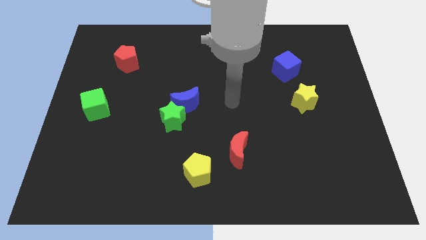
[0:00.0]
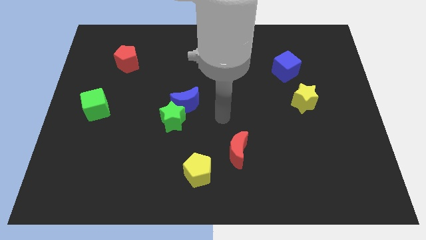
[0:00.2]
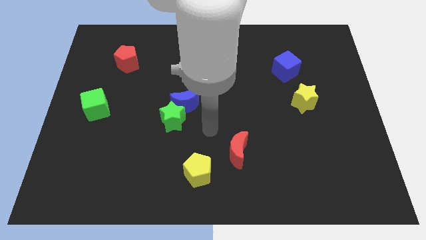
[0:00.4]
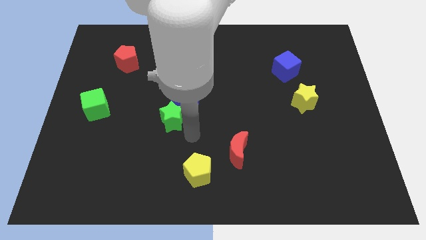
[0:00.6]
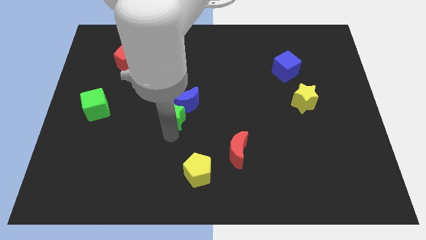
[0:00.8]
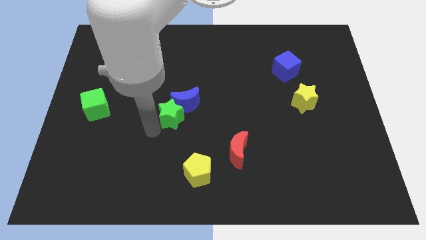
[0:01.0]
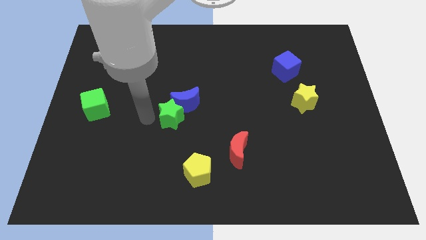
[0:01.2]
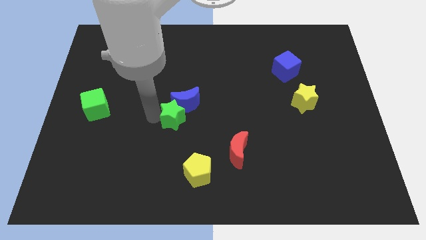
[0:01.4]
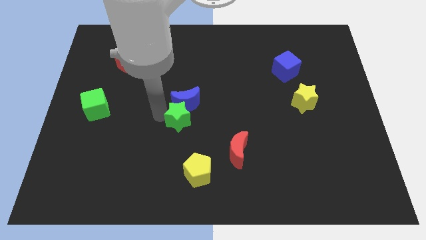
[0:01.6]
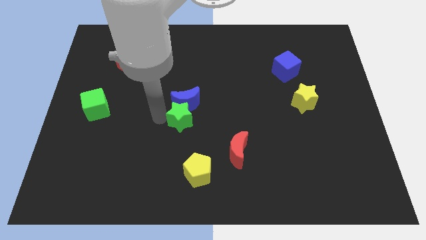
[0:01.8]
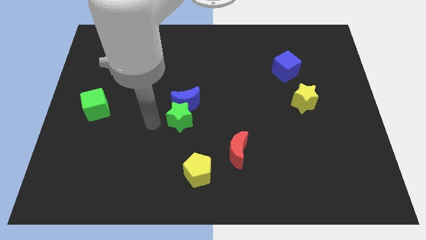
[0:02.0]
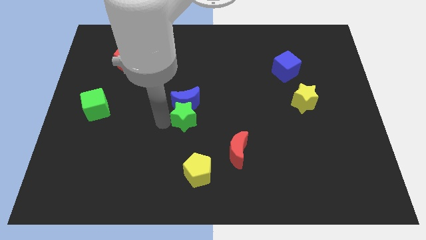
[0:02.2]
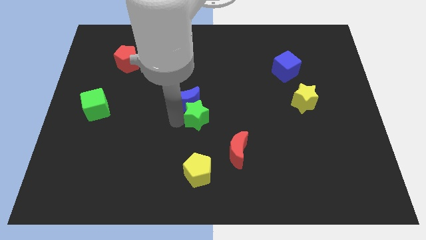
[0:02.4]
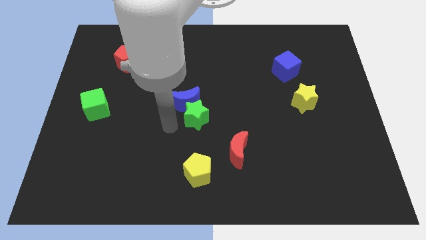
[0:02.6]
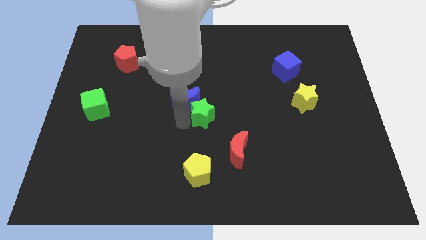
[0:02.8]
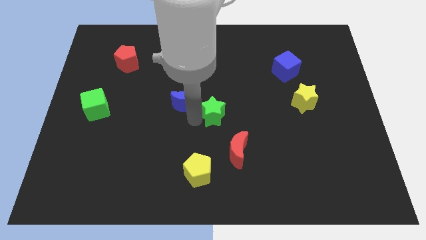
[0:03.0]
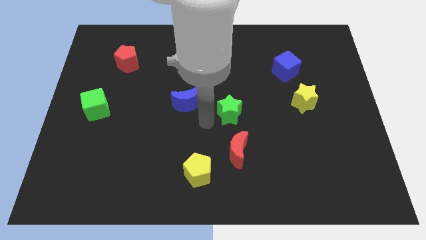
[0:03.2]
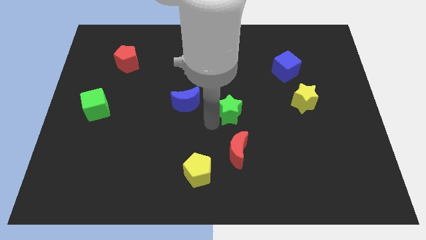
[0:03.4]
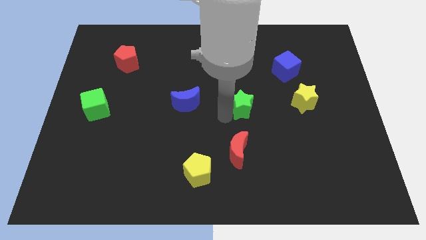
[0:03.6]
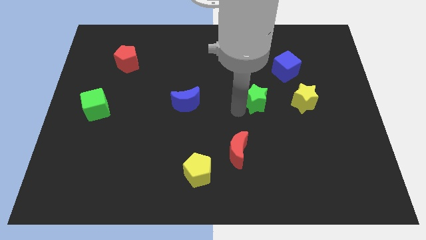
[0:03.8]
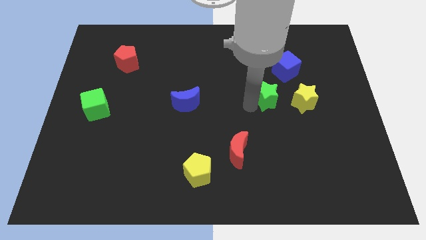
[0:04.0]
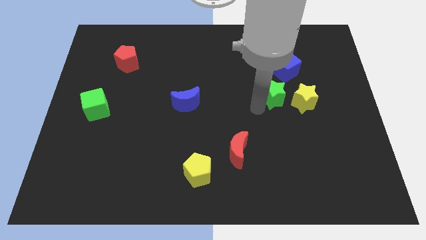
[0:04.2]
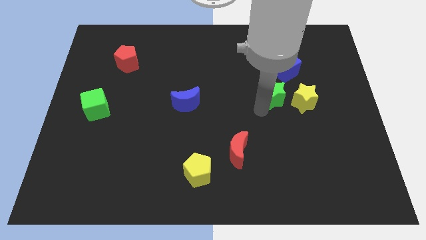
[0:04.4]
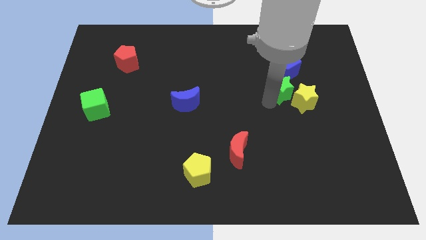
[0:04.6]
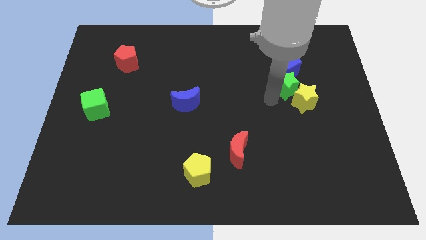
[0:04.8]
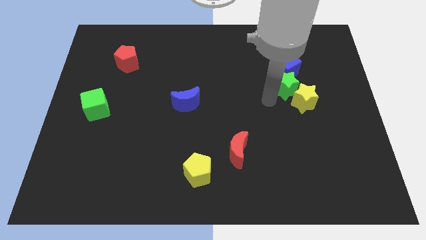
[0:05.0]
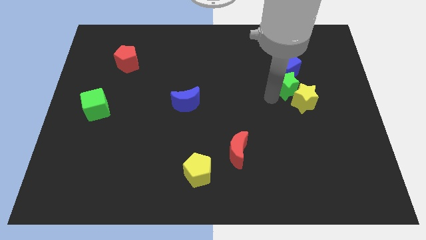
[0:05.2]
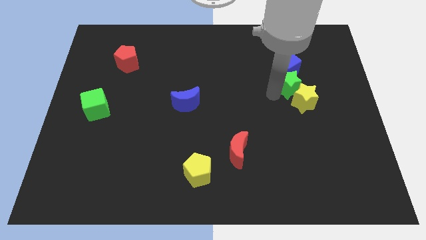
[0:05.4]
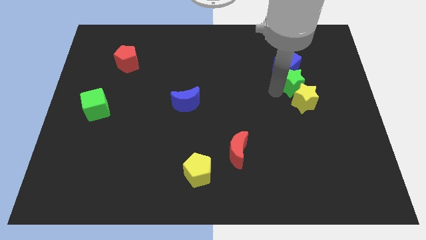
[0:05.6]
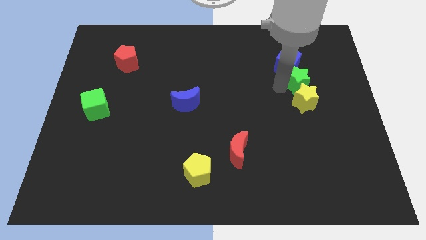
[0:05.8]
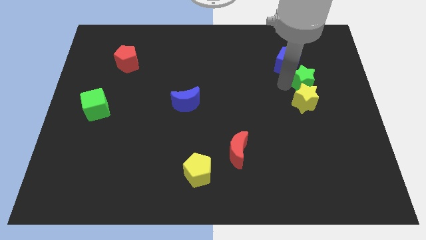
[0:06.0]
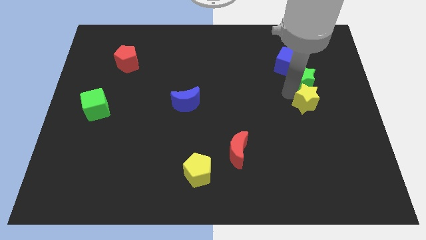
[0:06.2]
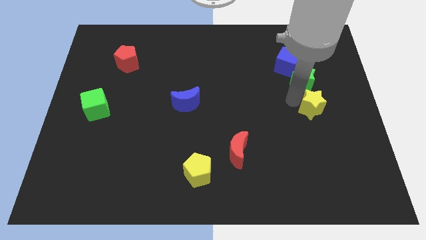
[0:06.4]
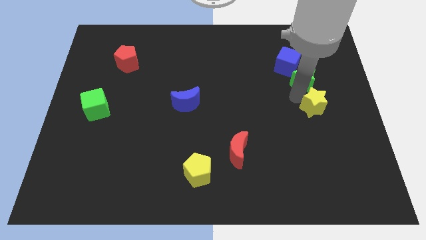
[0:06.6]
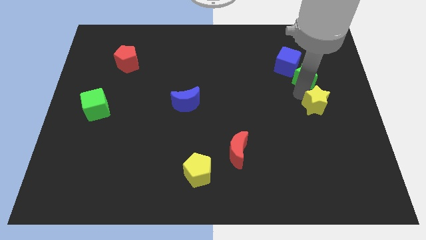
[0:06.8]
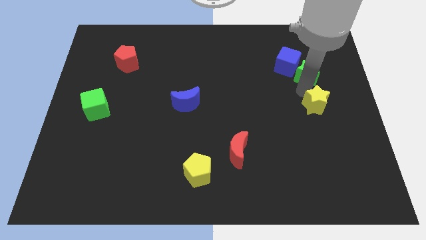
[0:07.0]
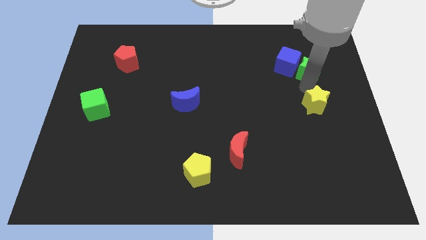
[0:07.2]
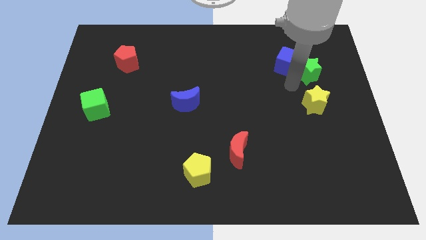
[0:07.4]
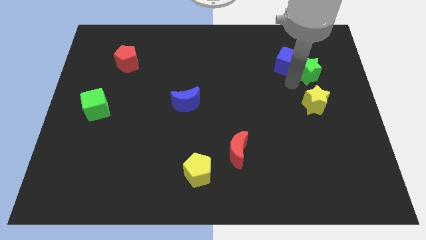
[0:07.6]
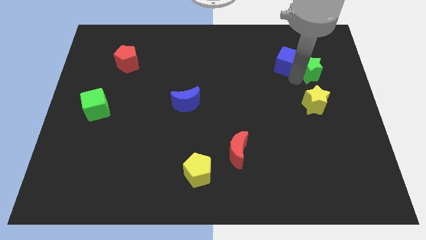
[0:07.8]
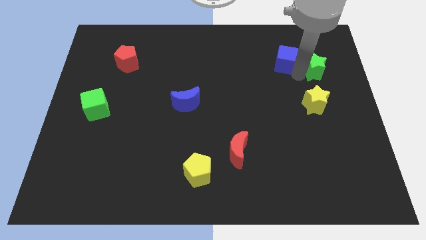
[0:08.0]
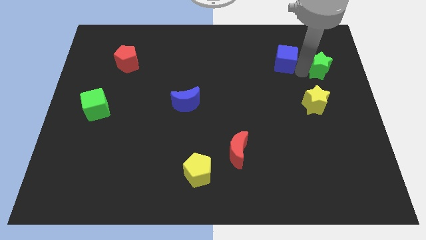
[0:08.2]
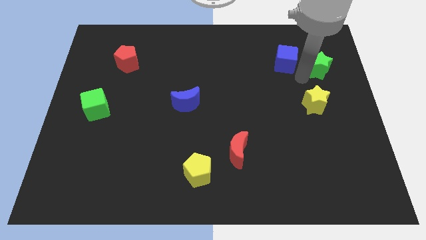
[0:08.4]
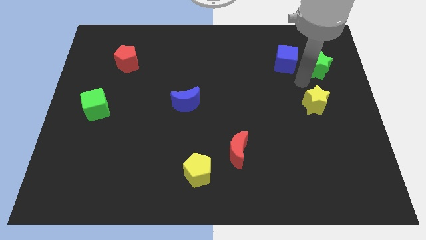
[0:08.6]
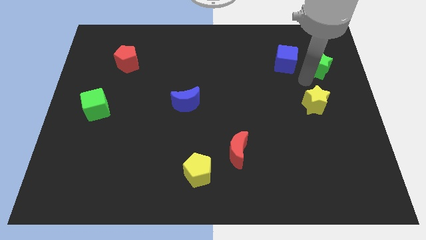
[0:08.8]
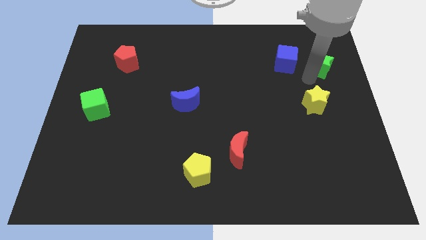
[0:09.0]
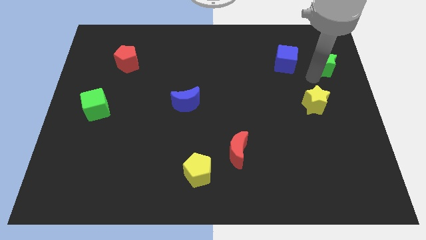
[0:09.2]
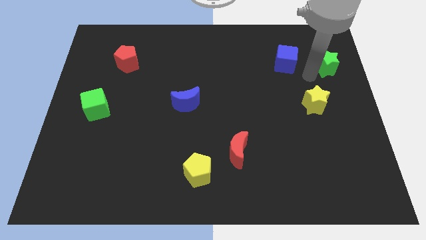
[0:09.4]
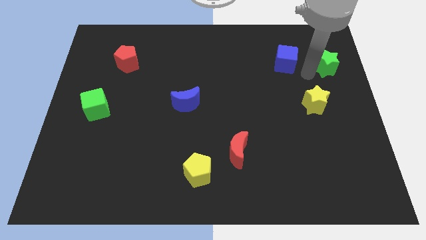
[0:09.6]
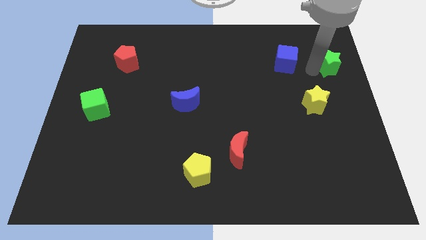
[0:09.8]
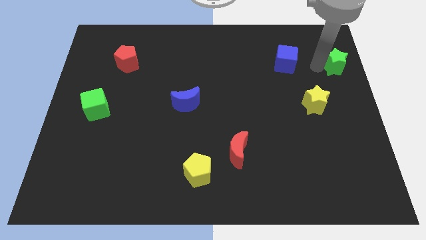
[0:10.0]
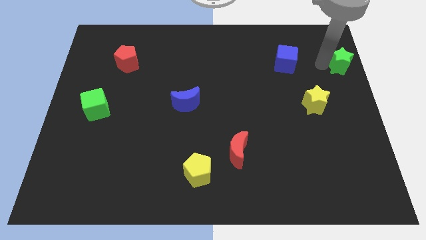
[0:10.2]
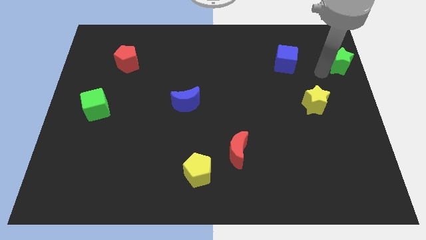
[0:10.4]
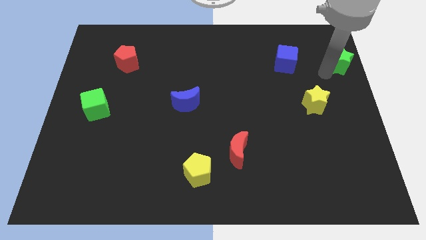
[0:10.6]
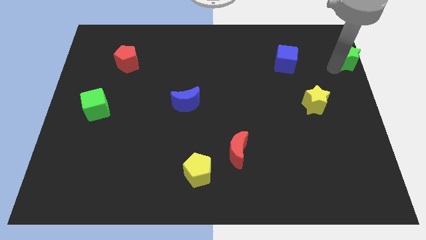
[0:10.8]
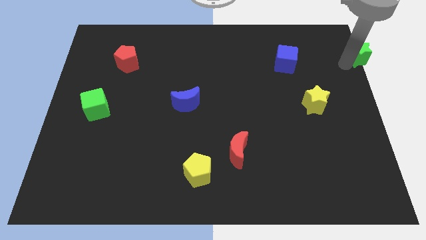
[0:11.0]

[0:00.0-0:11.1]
slide the green star to the top right corner

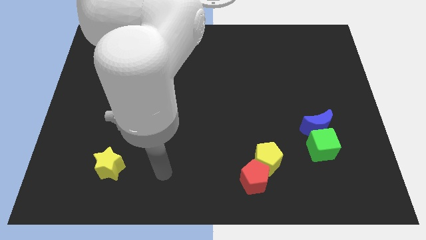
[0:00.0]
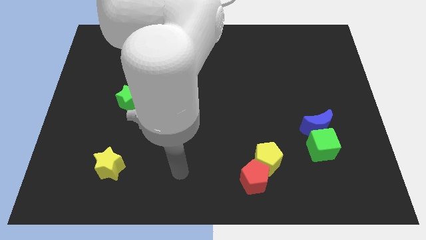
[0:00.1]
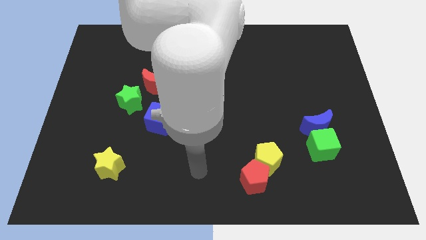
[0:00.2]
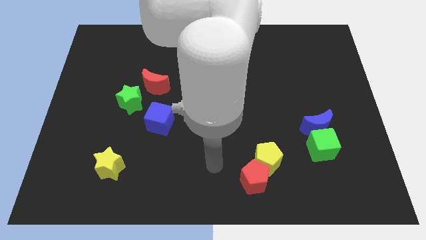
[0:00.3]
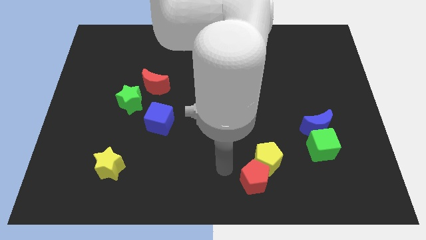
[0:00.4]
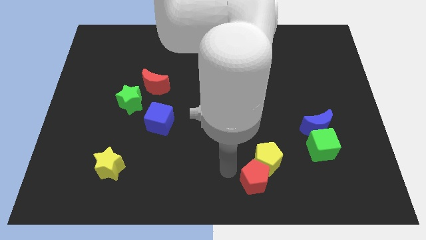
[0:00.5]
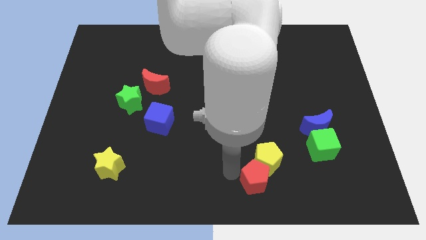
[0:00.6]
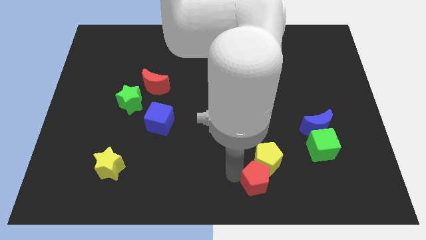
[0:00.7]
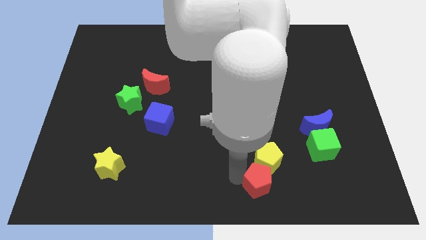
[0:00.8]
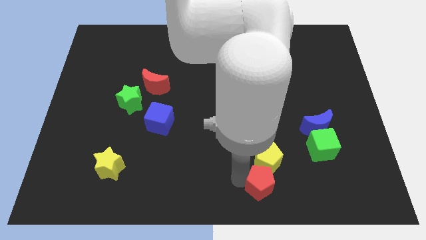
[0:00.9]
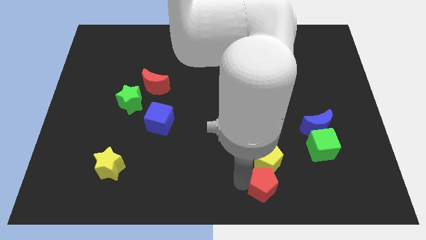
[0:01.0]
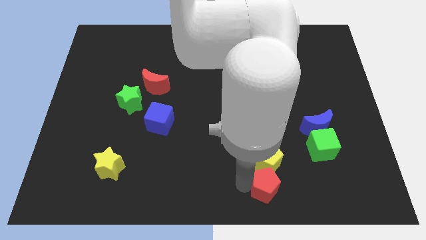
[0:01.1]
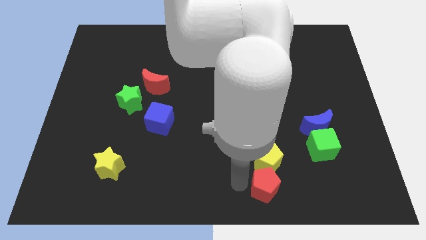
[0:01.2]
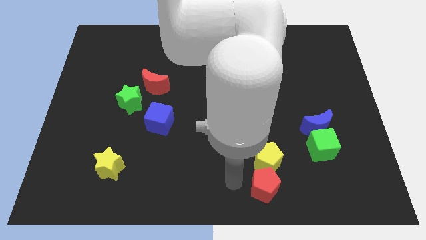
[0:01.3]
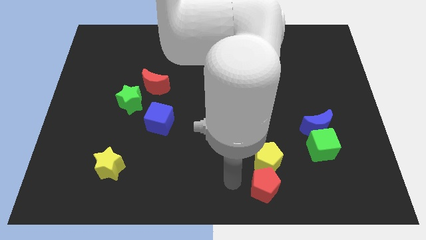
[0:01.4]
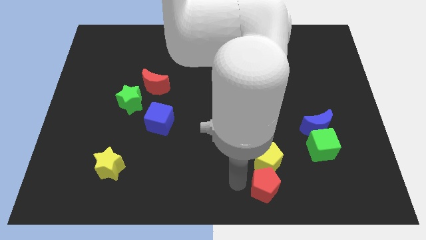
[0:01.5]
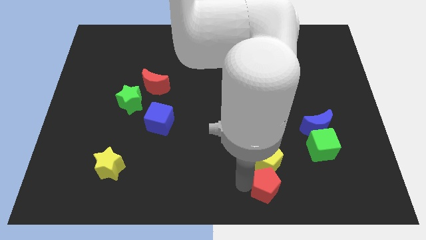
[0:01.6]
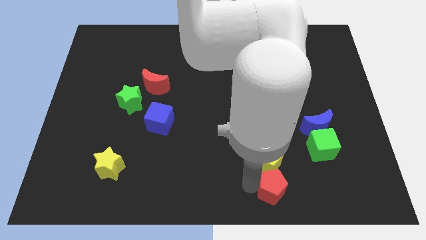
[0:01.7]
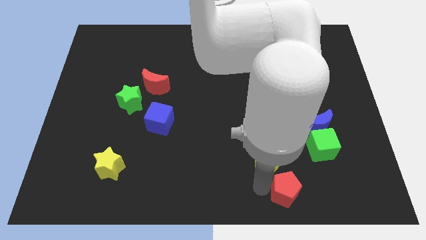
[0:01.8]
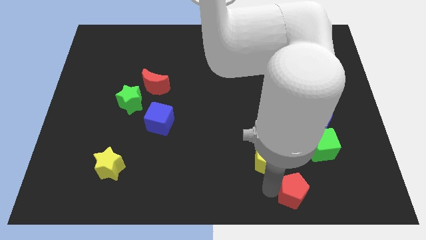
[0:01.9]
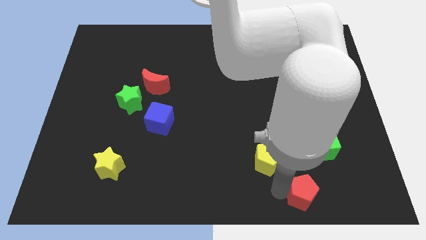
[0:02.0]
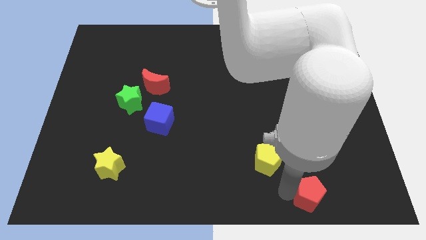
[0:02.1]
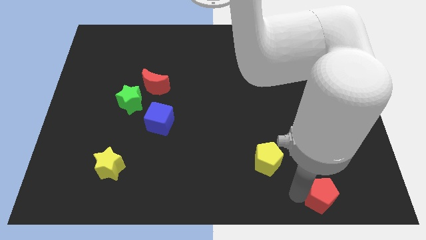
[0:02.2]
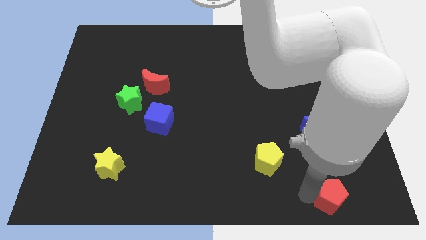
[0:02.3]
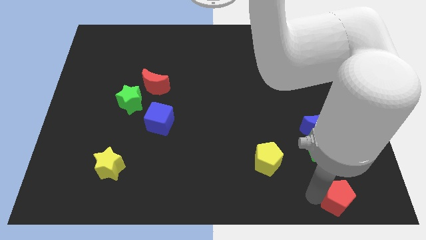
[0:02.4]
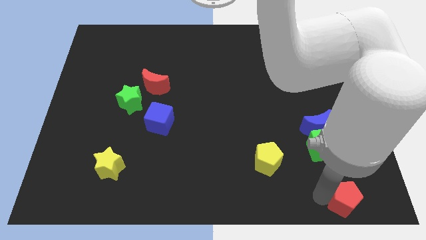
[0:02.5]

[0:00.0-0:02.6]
push the red pentagon to the lower right corner
